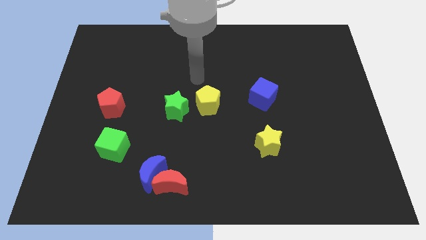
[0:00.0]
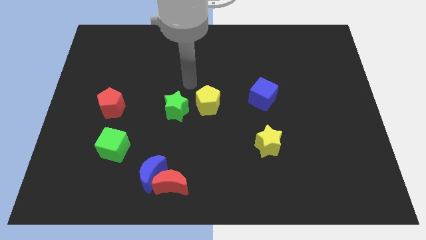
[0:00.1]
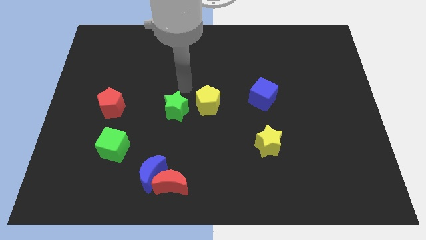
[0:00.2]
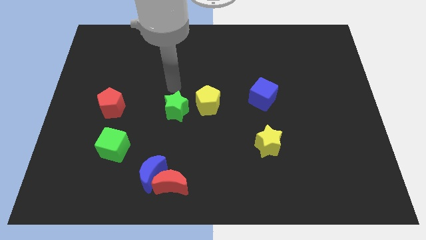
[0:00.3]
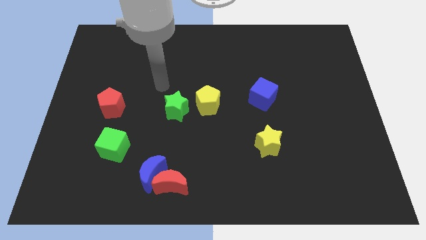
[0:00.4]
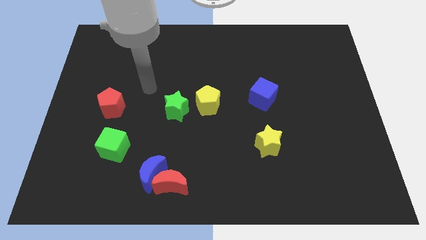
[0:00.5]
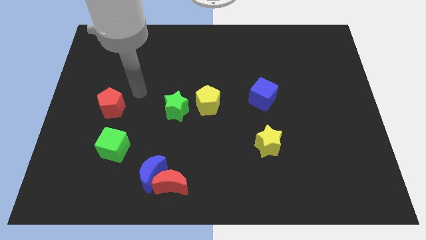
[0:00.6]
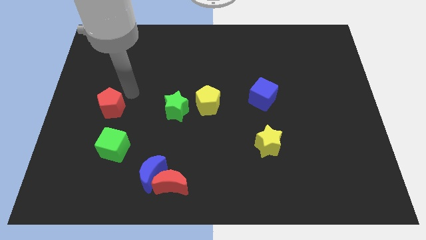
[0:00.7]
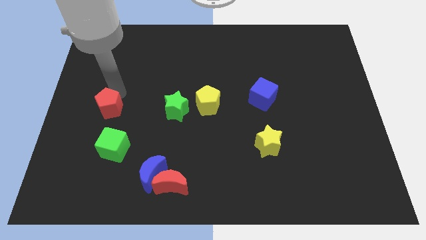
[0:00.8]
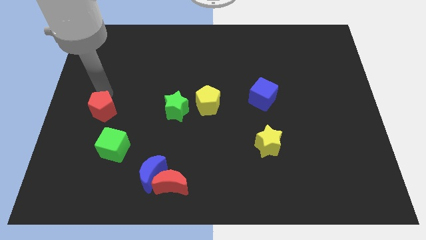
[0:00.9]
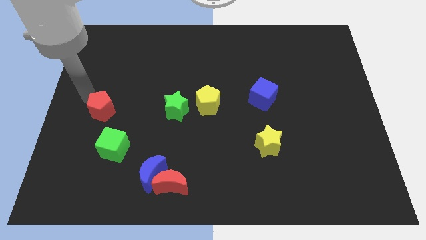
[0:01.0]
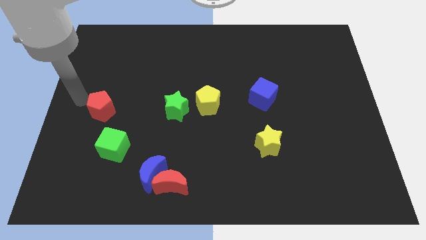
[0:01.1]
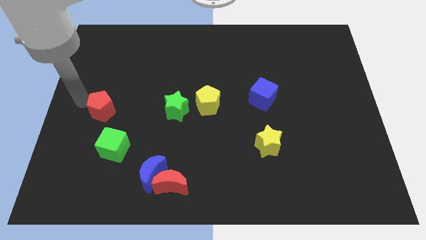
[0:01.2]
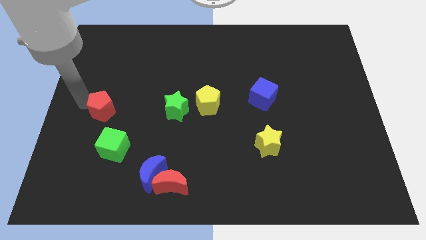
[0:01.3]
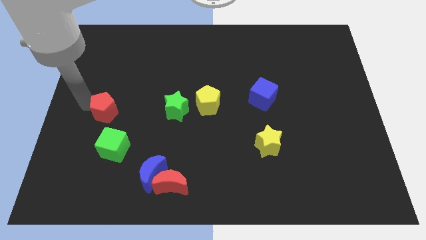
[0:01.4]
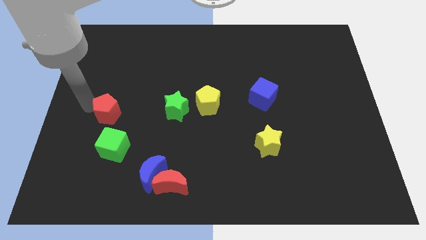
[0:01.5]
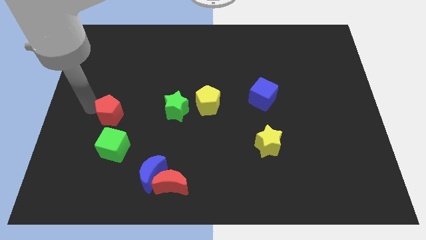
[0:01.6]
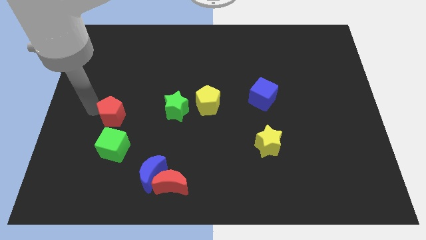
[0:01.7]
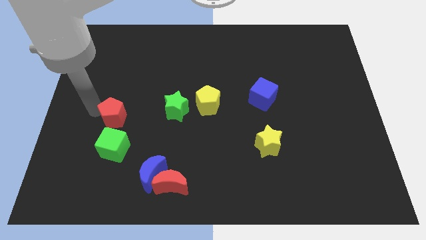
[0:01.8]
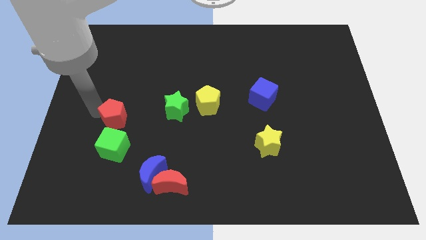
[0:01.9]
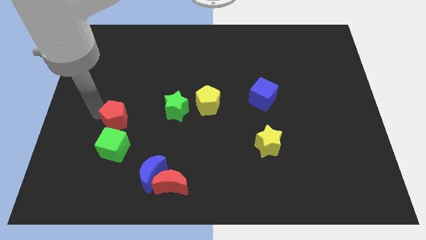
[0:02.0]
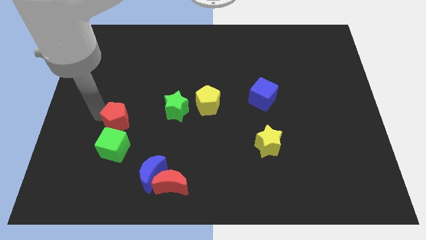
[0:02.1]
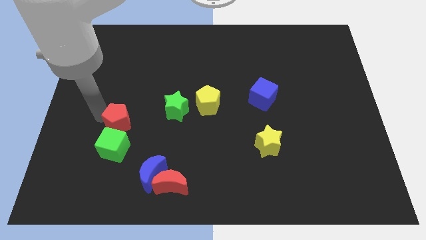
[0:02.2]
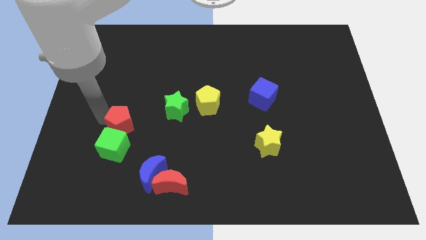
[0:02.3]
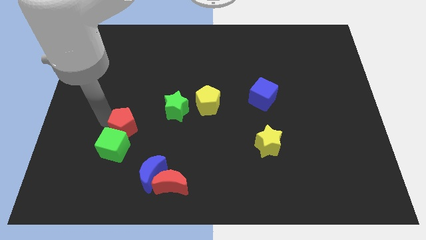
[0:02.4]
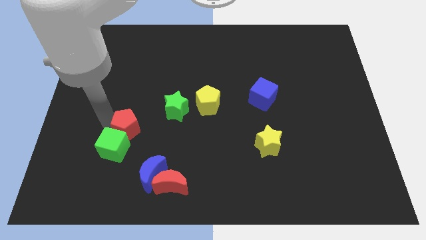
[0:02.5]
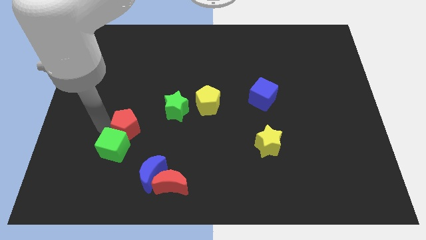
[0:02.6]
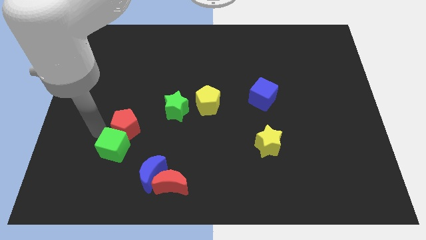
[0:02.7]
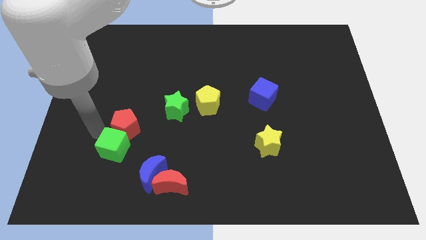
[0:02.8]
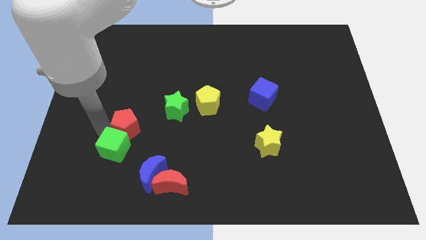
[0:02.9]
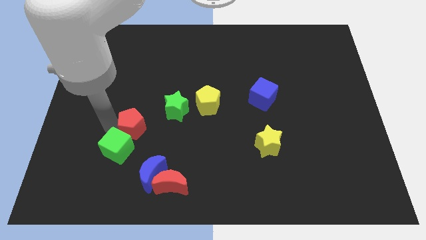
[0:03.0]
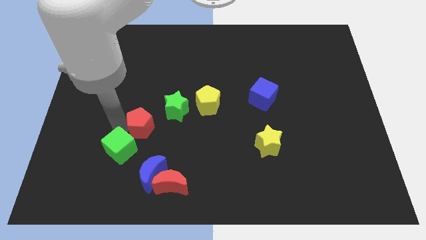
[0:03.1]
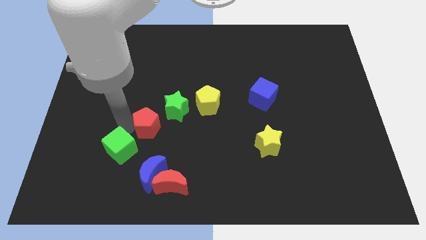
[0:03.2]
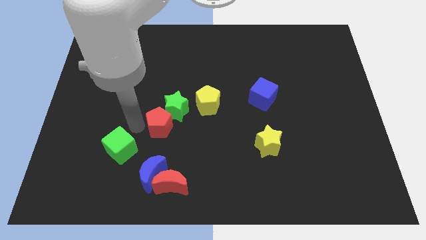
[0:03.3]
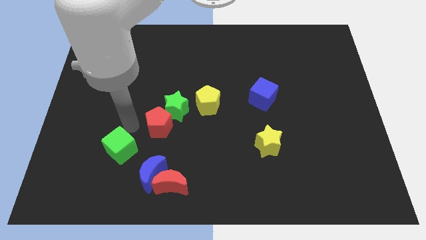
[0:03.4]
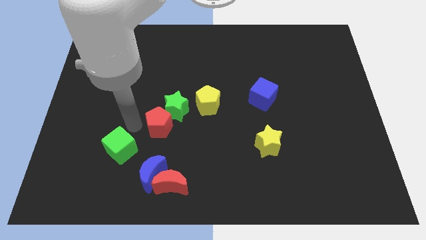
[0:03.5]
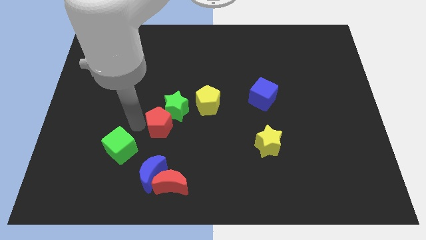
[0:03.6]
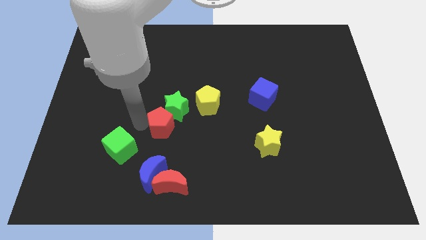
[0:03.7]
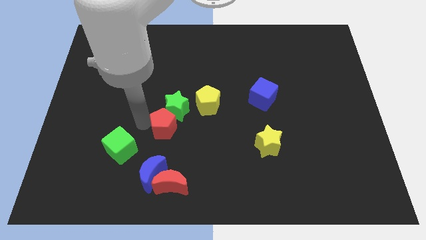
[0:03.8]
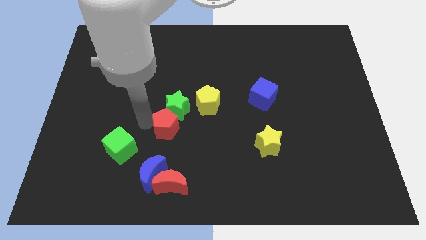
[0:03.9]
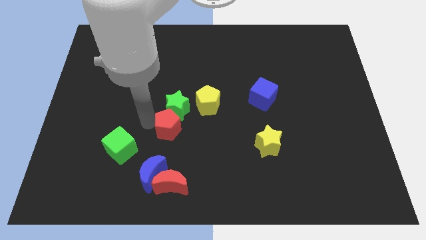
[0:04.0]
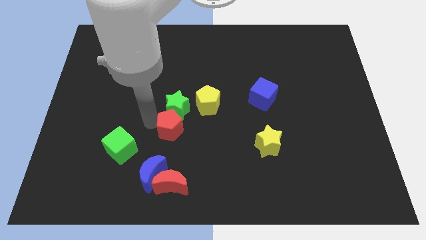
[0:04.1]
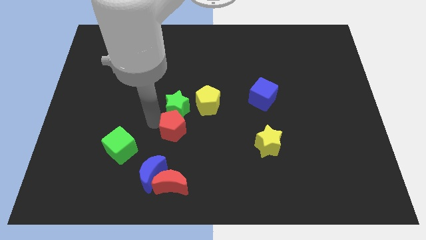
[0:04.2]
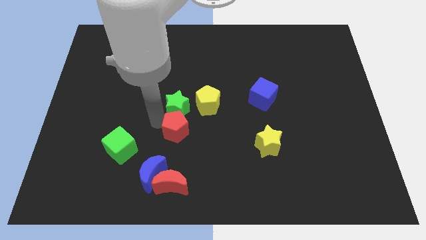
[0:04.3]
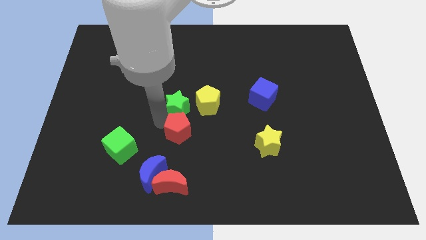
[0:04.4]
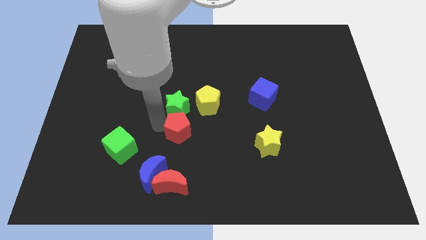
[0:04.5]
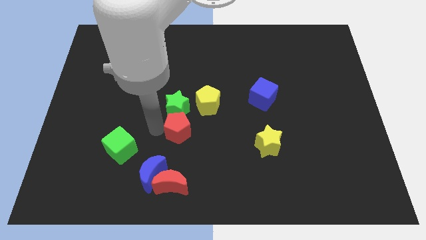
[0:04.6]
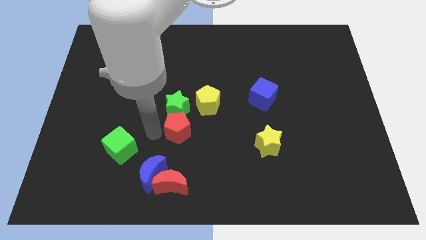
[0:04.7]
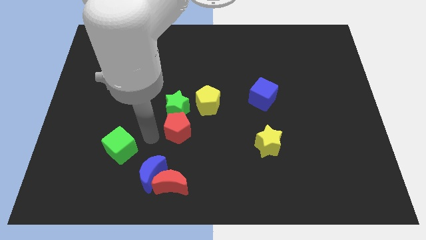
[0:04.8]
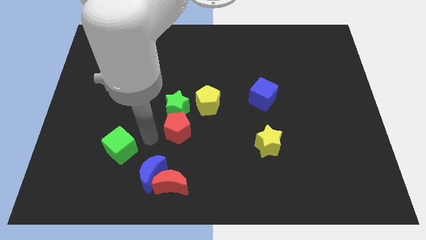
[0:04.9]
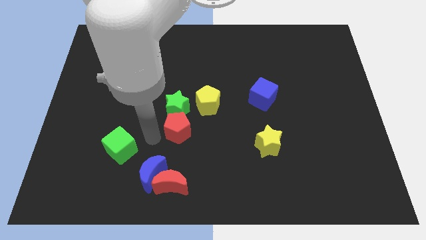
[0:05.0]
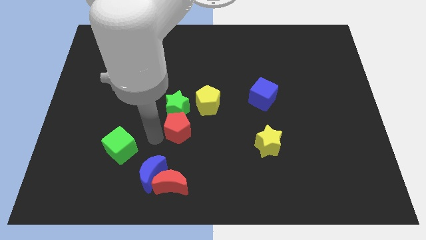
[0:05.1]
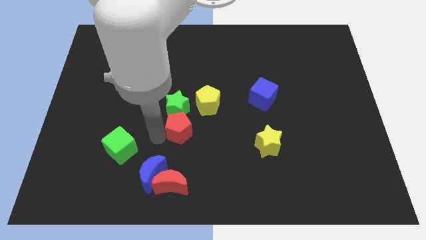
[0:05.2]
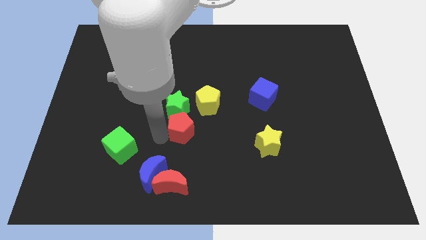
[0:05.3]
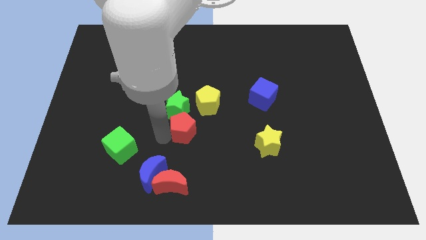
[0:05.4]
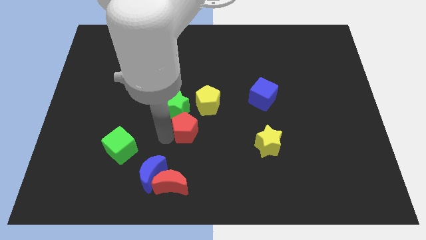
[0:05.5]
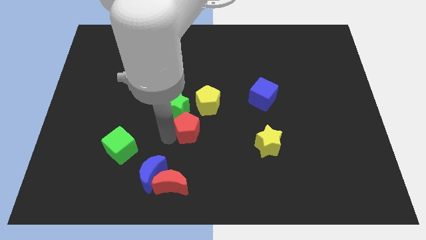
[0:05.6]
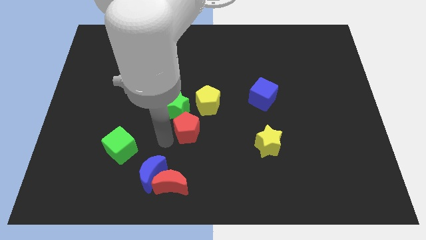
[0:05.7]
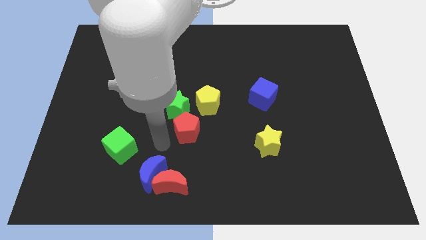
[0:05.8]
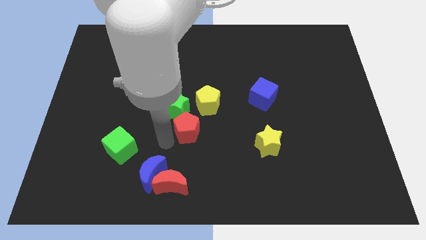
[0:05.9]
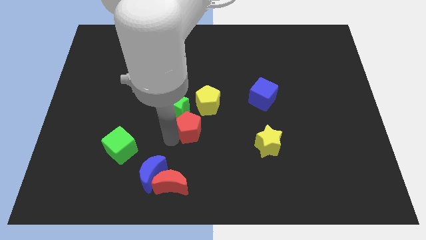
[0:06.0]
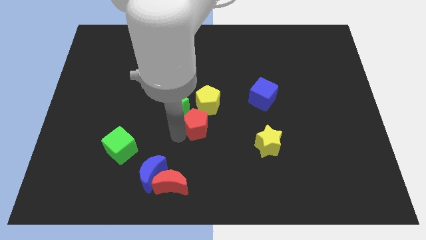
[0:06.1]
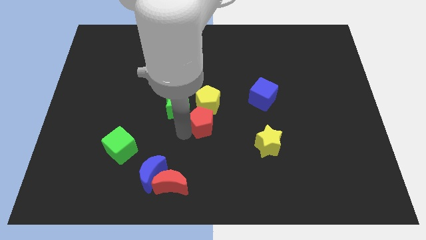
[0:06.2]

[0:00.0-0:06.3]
move the red pentagon just right of the green star
